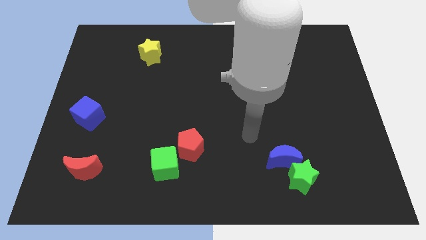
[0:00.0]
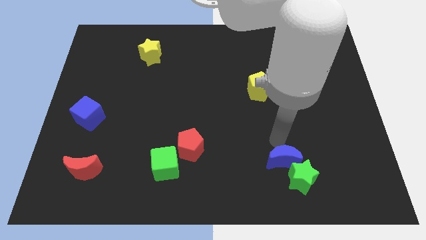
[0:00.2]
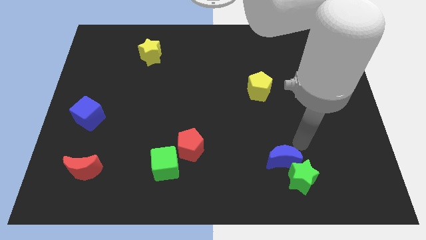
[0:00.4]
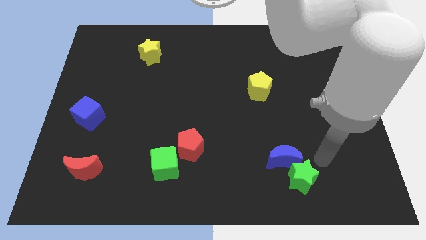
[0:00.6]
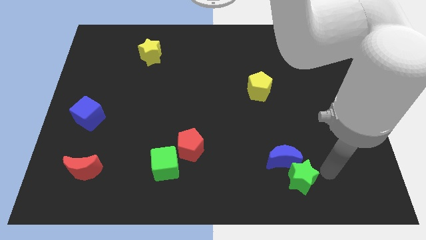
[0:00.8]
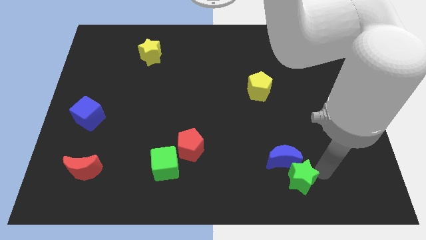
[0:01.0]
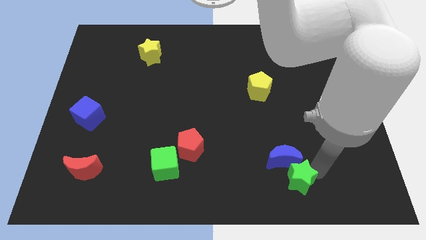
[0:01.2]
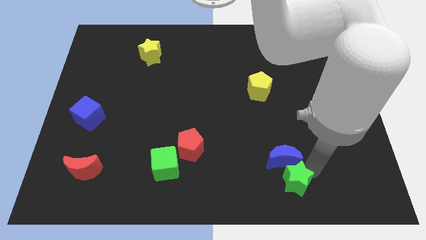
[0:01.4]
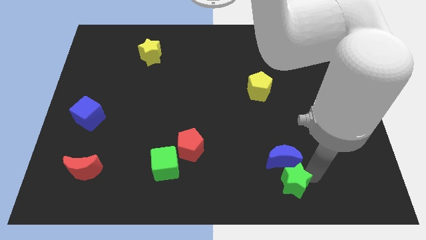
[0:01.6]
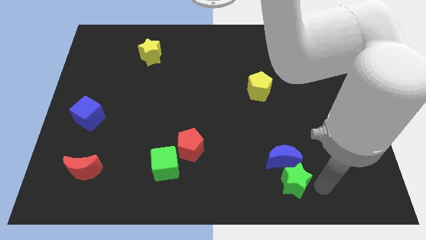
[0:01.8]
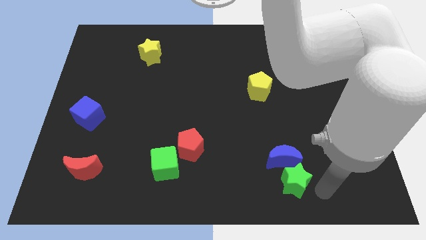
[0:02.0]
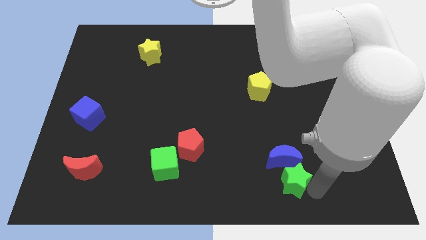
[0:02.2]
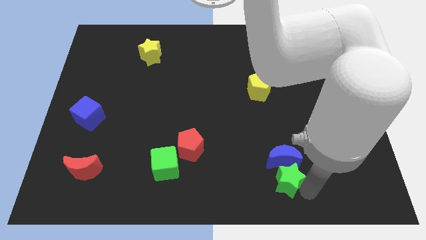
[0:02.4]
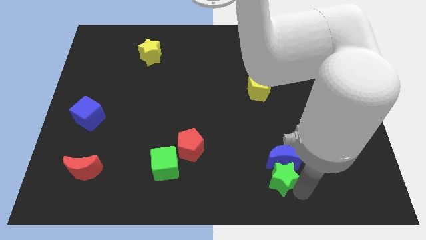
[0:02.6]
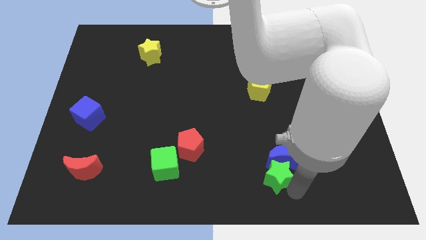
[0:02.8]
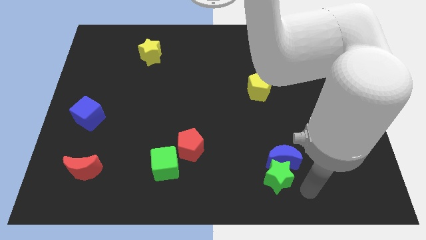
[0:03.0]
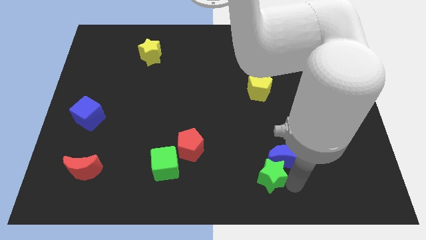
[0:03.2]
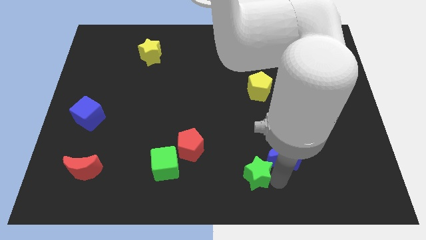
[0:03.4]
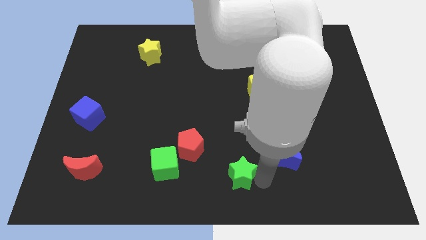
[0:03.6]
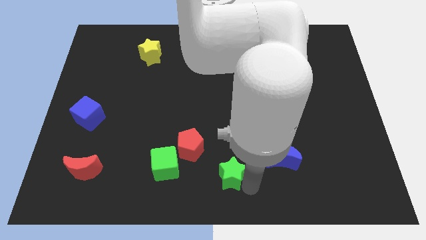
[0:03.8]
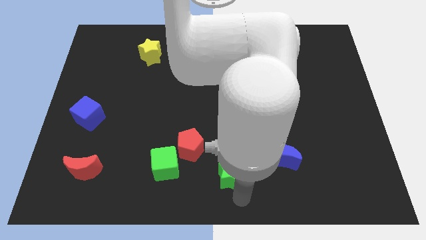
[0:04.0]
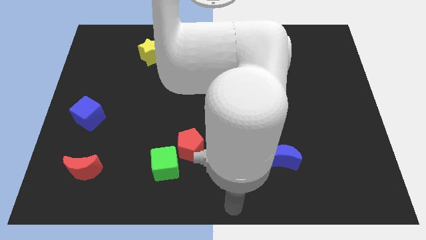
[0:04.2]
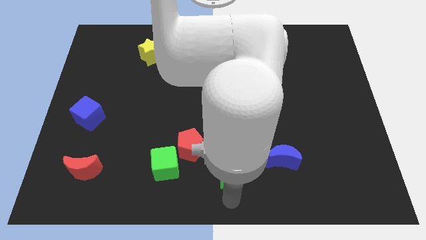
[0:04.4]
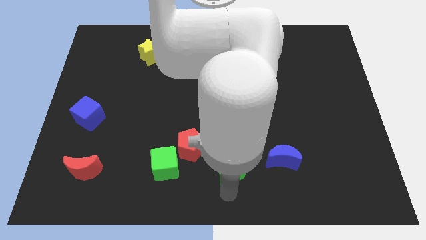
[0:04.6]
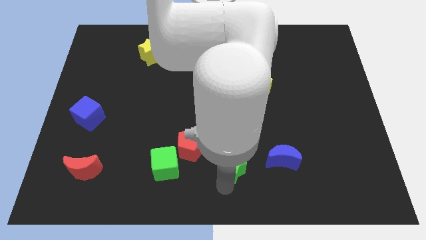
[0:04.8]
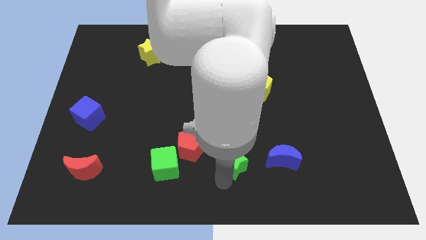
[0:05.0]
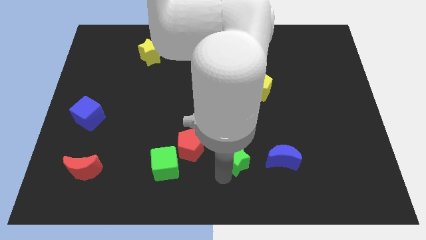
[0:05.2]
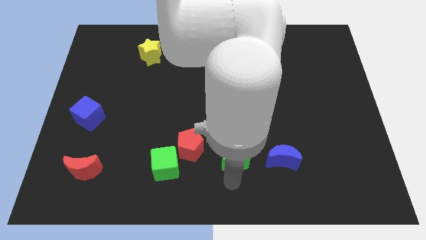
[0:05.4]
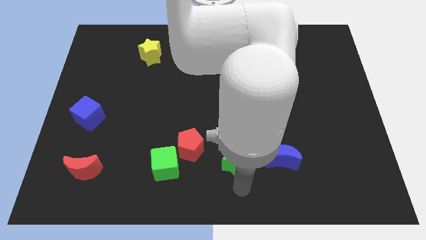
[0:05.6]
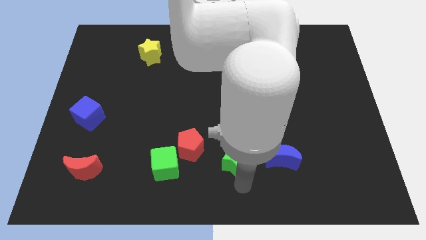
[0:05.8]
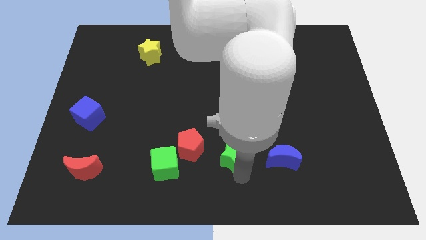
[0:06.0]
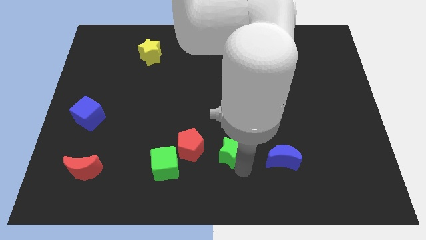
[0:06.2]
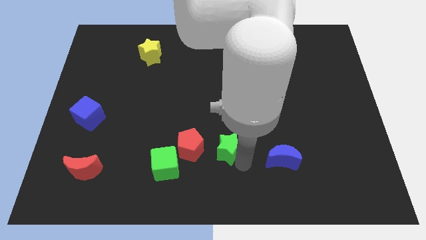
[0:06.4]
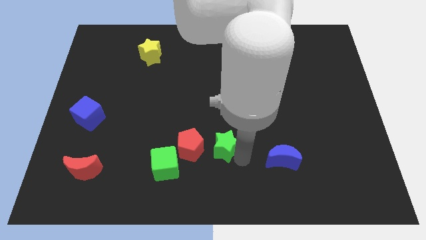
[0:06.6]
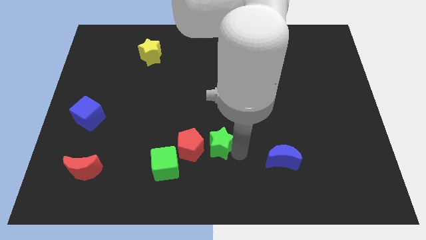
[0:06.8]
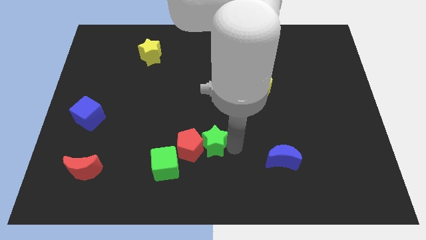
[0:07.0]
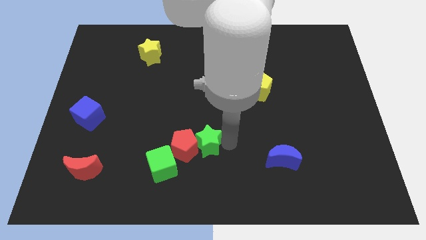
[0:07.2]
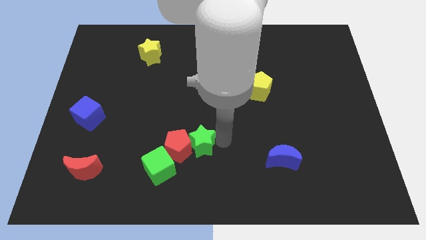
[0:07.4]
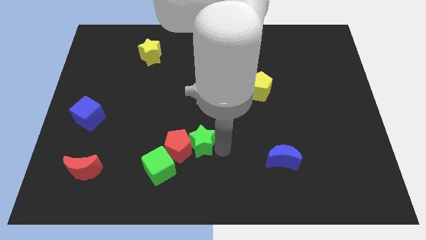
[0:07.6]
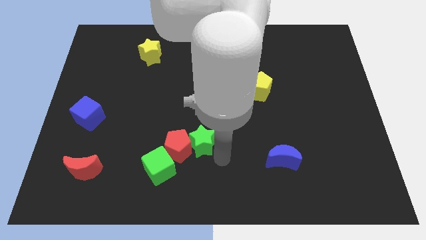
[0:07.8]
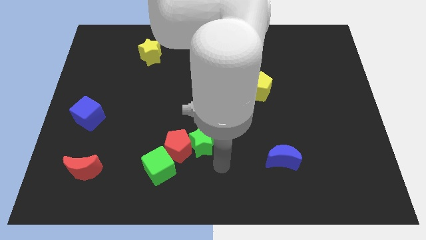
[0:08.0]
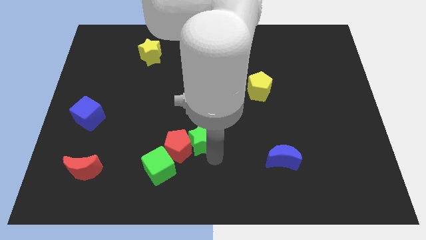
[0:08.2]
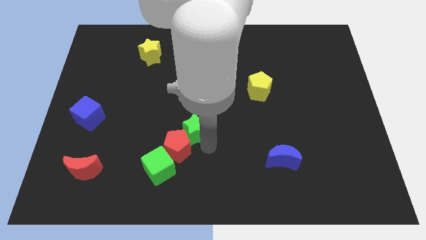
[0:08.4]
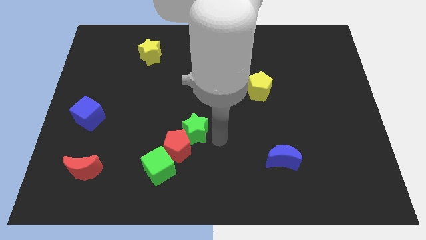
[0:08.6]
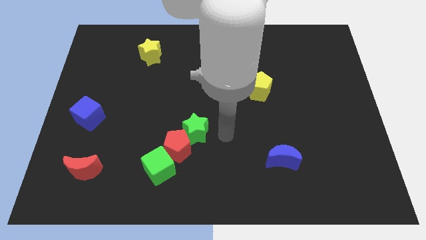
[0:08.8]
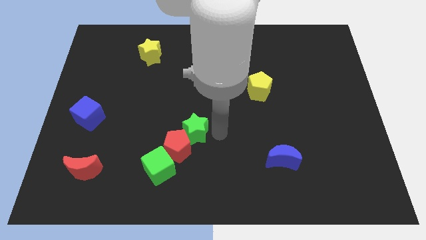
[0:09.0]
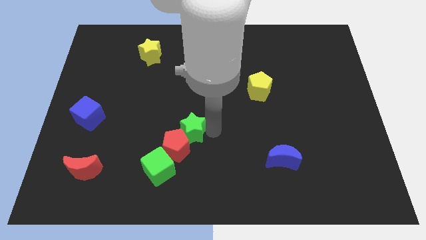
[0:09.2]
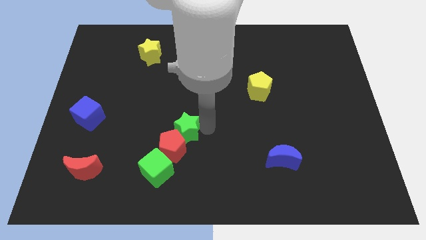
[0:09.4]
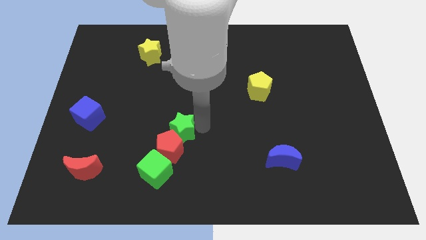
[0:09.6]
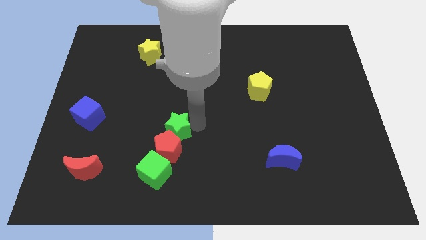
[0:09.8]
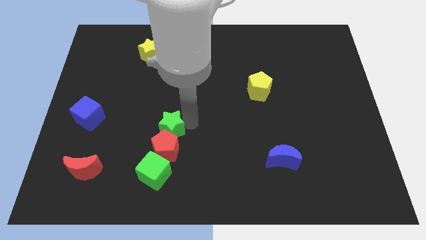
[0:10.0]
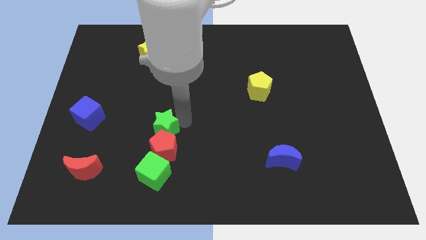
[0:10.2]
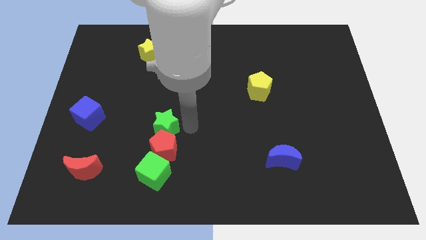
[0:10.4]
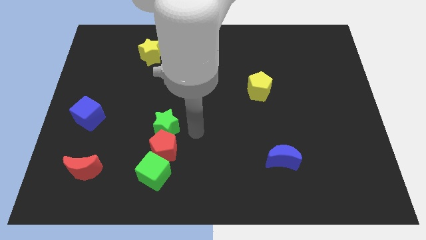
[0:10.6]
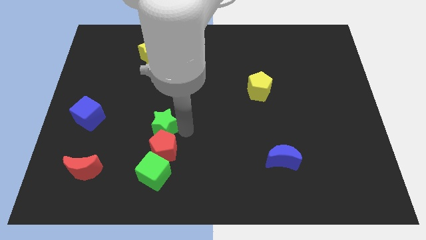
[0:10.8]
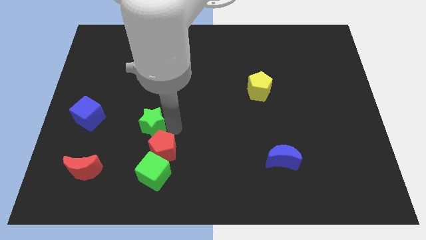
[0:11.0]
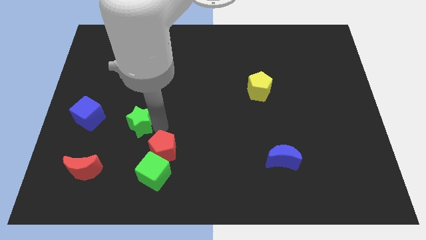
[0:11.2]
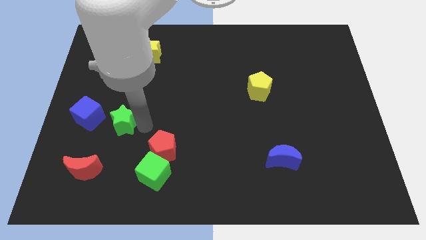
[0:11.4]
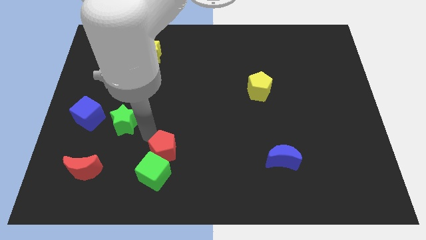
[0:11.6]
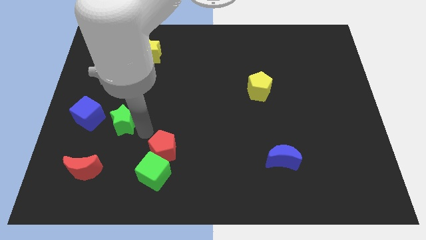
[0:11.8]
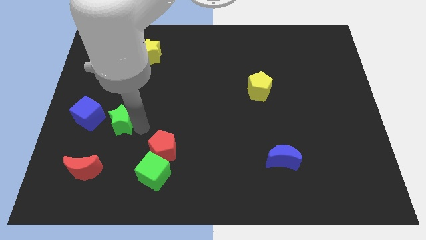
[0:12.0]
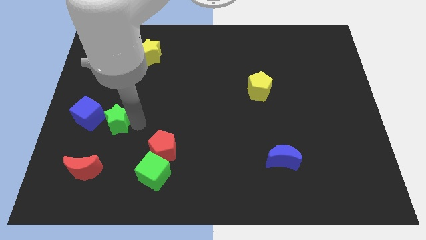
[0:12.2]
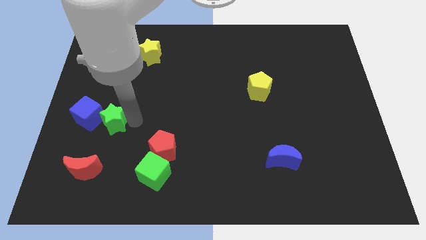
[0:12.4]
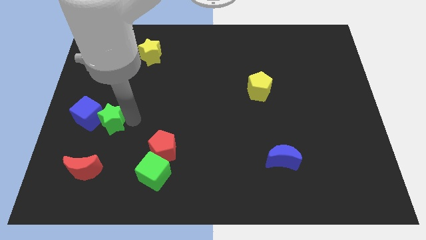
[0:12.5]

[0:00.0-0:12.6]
slide the green star close to the blue cube
